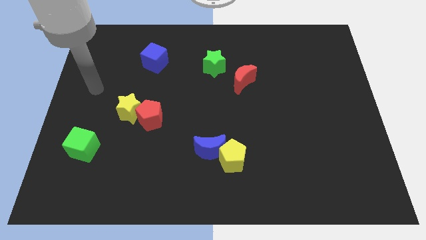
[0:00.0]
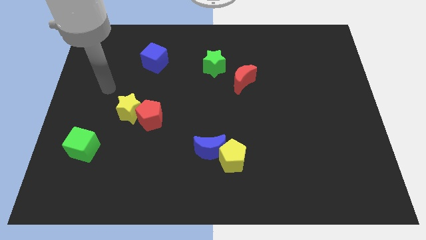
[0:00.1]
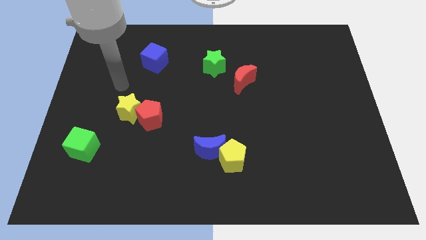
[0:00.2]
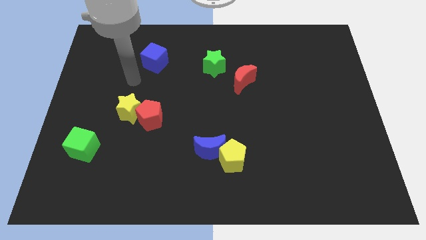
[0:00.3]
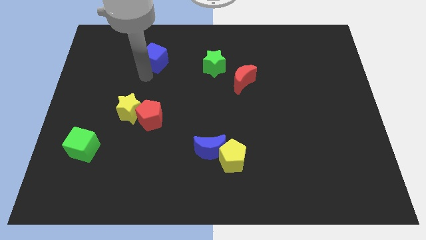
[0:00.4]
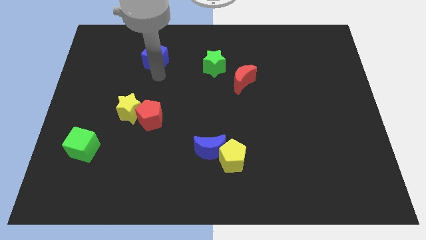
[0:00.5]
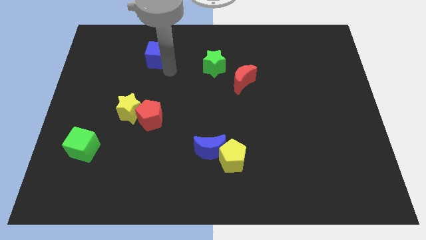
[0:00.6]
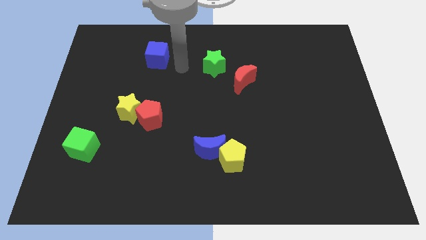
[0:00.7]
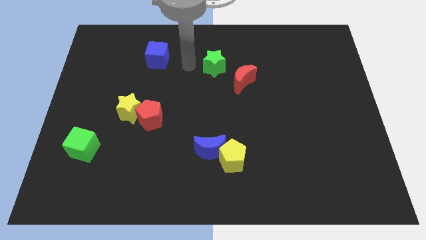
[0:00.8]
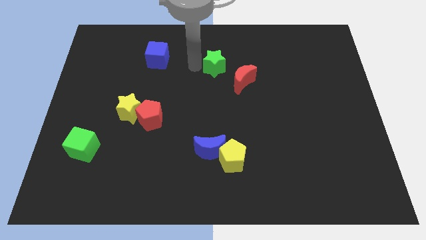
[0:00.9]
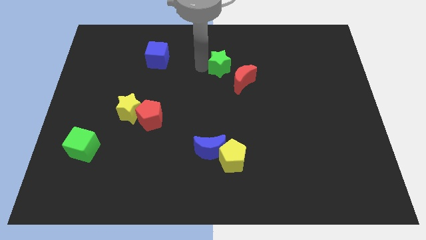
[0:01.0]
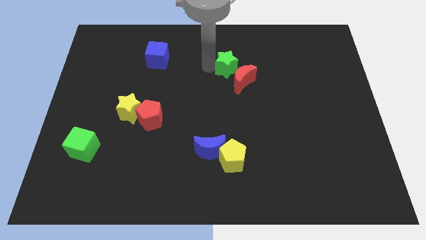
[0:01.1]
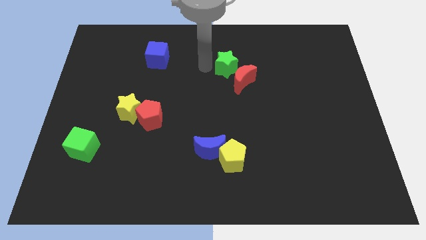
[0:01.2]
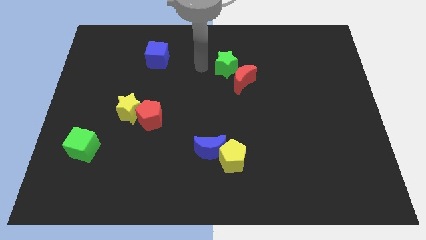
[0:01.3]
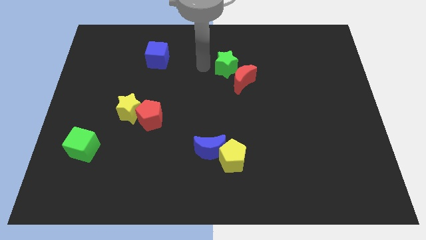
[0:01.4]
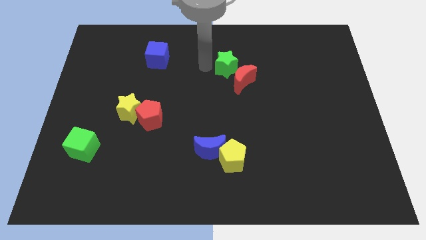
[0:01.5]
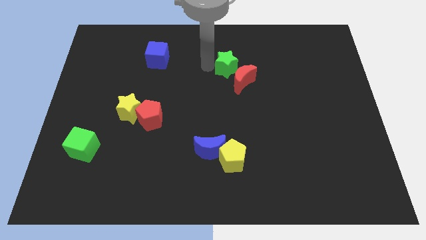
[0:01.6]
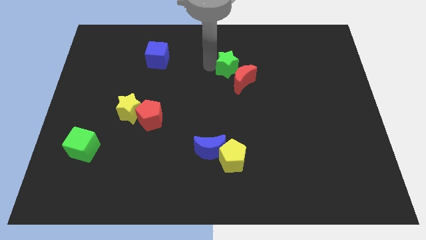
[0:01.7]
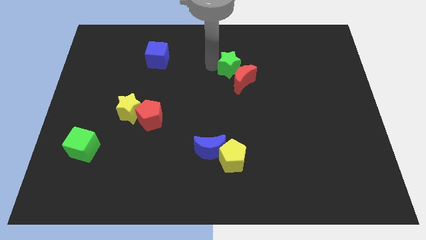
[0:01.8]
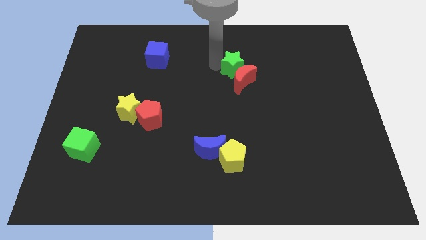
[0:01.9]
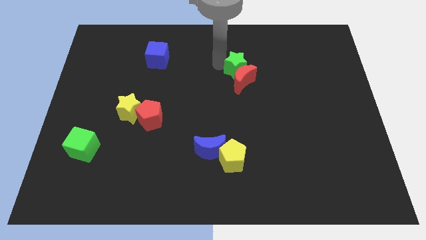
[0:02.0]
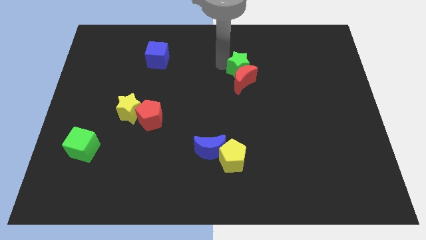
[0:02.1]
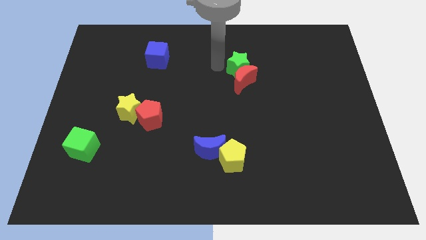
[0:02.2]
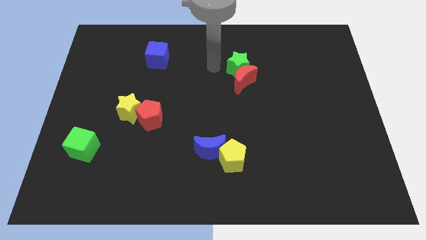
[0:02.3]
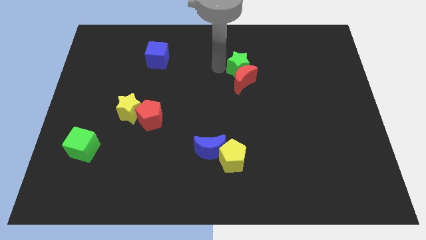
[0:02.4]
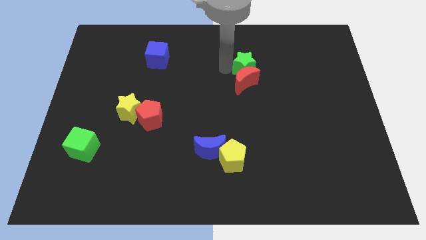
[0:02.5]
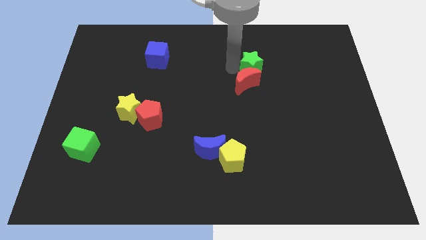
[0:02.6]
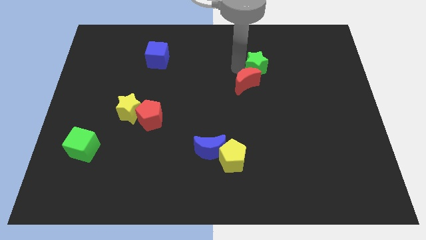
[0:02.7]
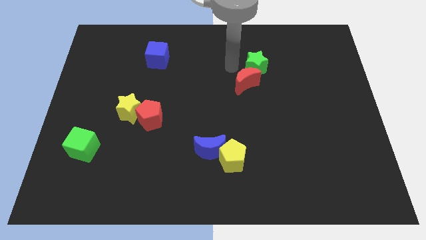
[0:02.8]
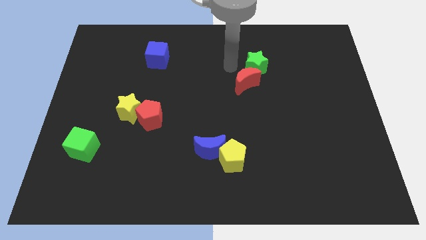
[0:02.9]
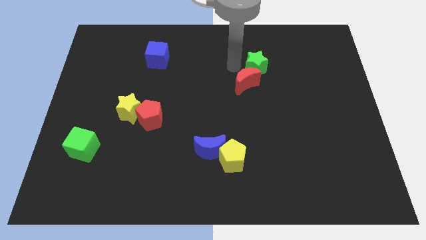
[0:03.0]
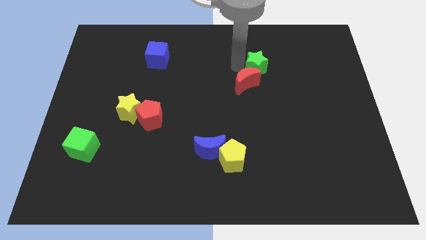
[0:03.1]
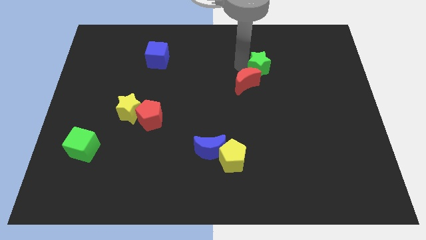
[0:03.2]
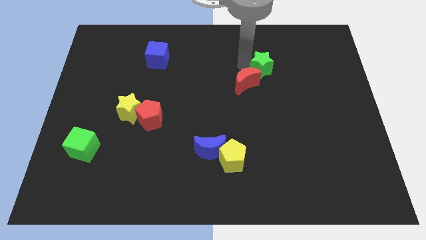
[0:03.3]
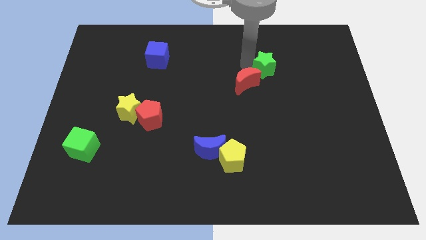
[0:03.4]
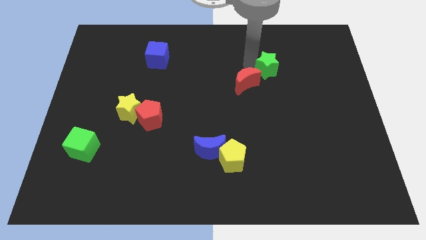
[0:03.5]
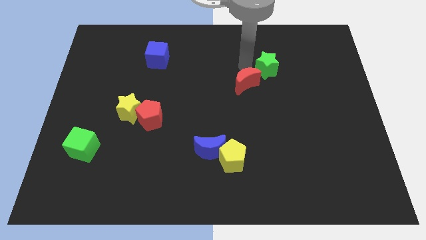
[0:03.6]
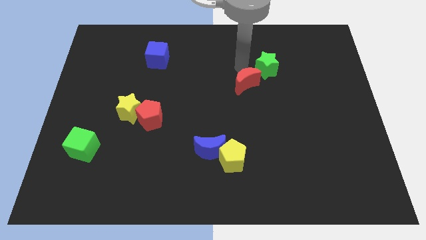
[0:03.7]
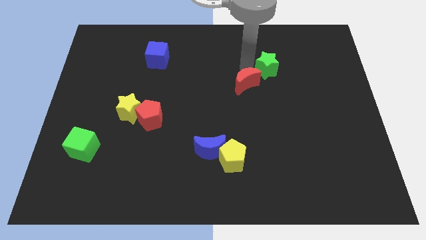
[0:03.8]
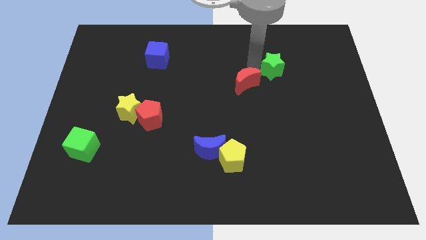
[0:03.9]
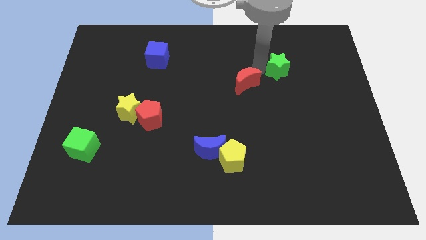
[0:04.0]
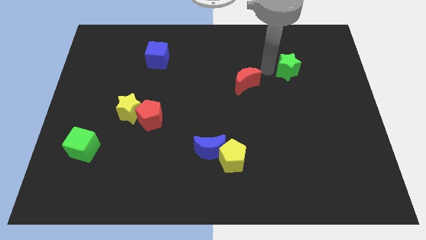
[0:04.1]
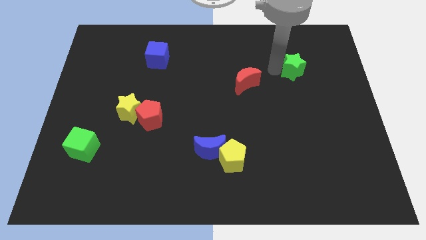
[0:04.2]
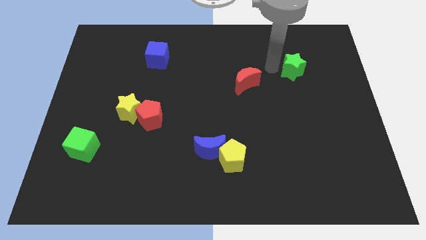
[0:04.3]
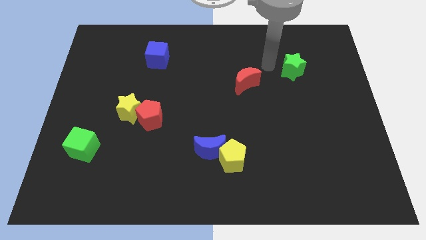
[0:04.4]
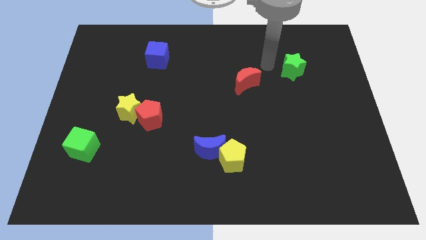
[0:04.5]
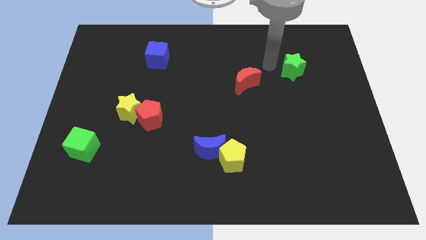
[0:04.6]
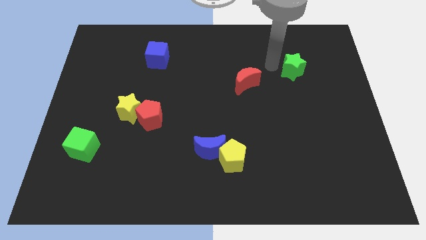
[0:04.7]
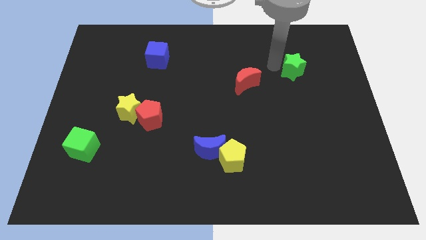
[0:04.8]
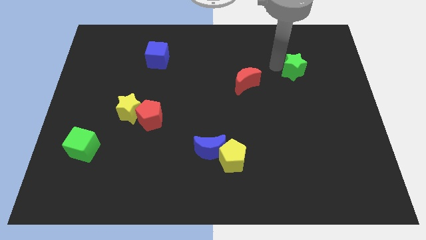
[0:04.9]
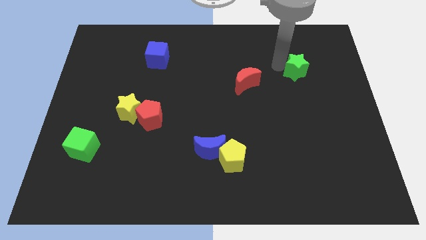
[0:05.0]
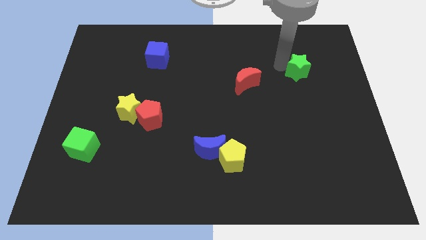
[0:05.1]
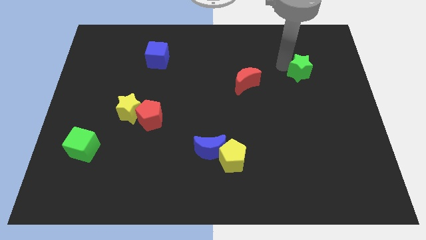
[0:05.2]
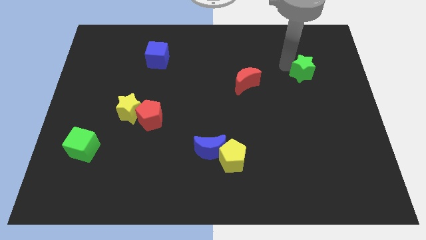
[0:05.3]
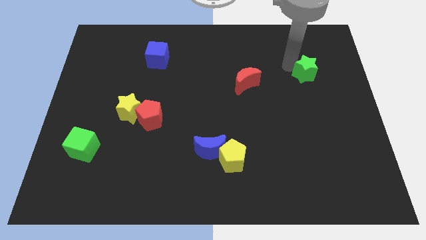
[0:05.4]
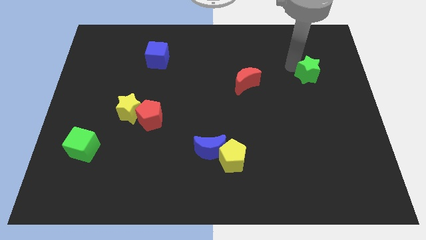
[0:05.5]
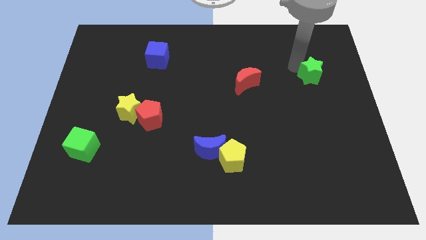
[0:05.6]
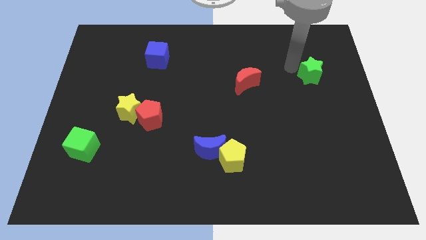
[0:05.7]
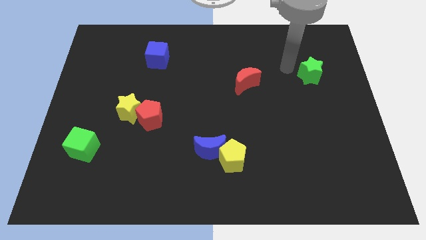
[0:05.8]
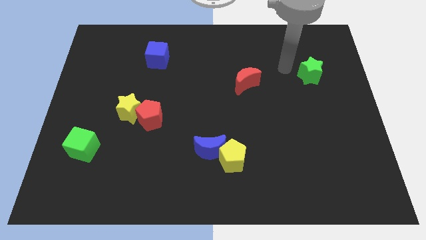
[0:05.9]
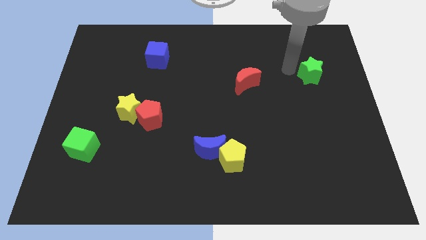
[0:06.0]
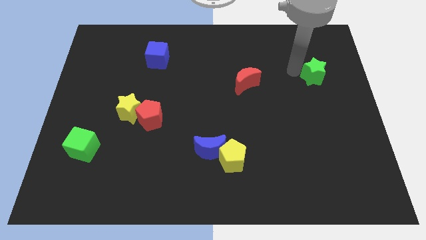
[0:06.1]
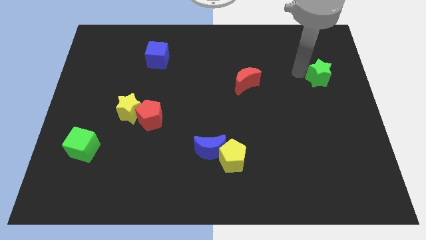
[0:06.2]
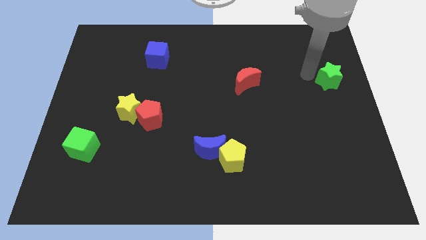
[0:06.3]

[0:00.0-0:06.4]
put the green star to the right side

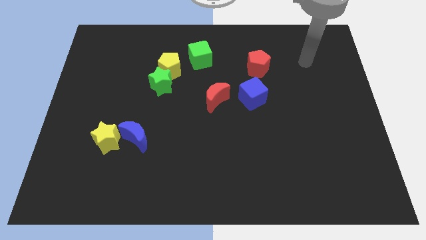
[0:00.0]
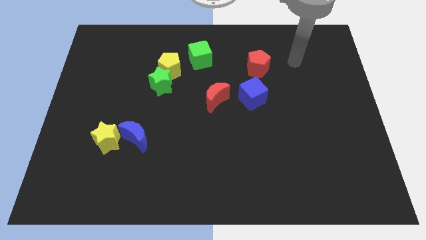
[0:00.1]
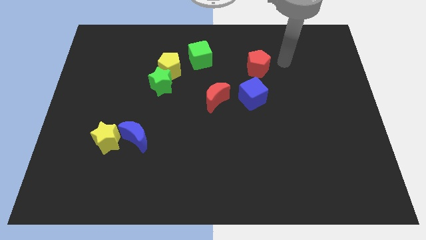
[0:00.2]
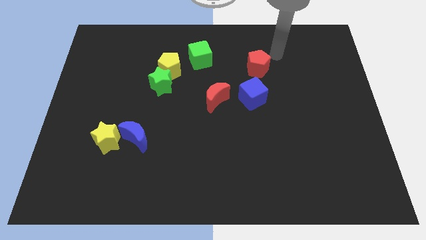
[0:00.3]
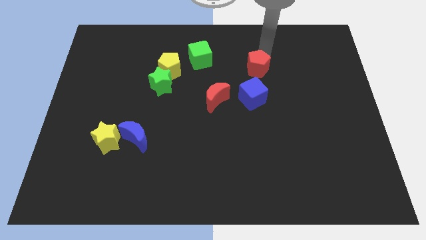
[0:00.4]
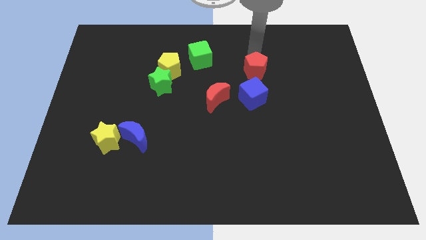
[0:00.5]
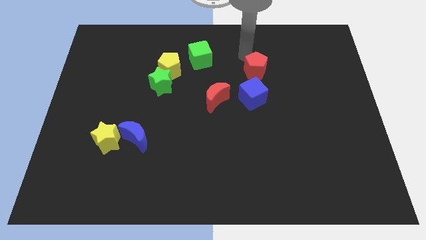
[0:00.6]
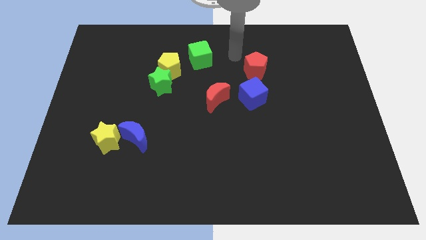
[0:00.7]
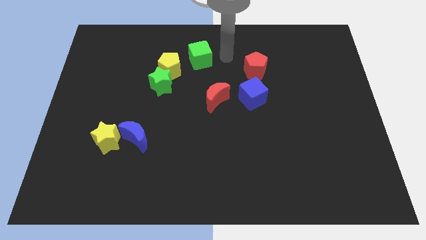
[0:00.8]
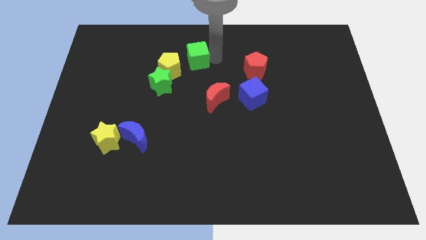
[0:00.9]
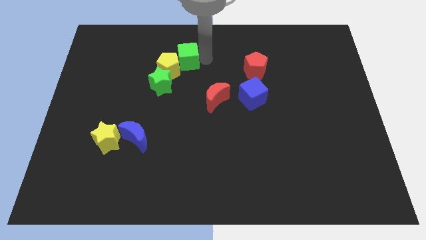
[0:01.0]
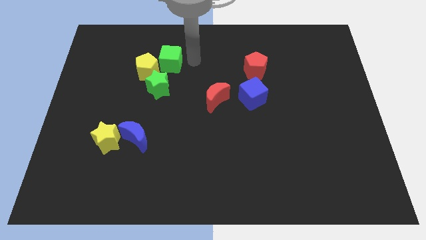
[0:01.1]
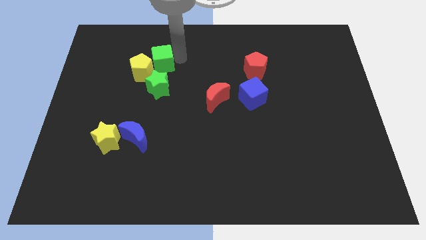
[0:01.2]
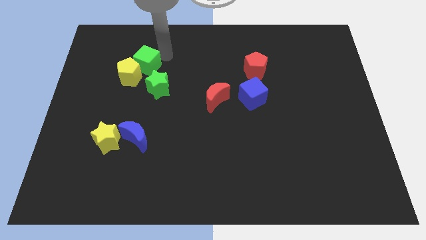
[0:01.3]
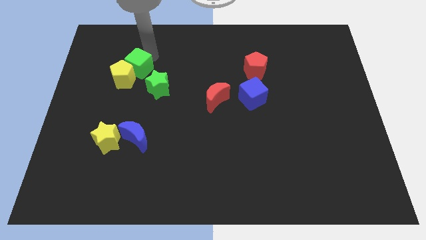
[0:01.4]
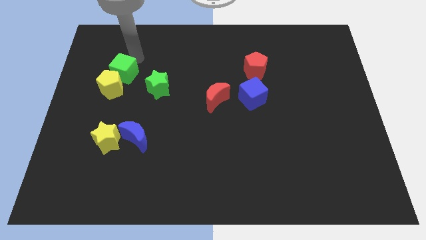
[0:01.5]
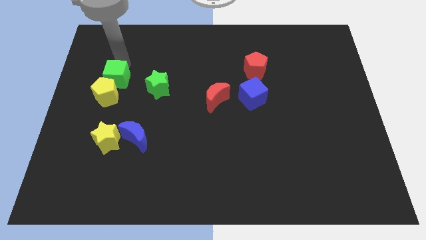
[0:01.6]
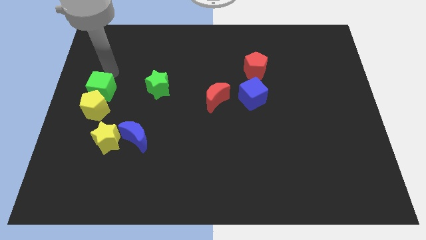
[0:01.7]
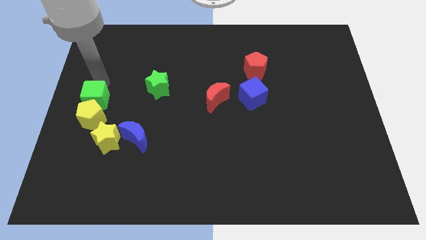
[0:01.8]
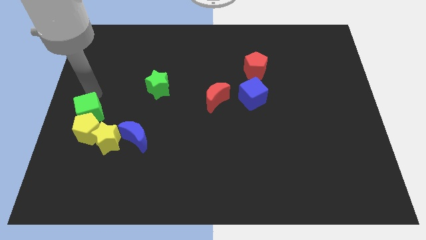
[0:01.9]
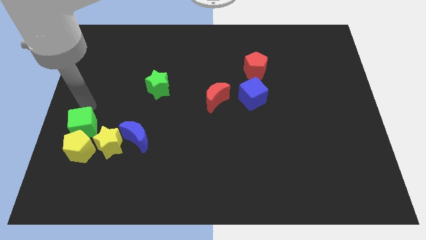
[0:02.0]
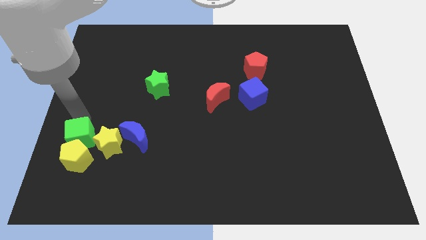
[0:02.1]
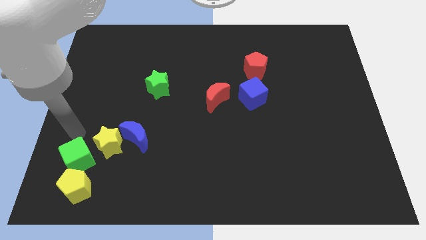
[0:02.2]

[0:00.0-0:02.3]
put the yellow pentagon to the lower left corner
